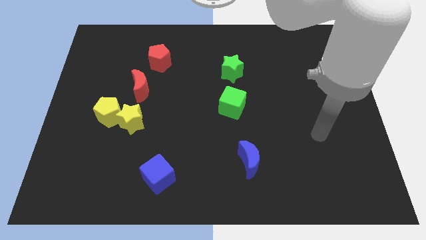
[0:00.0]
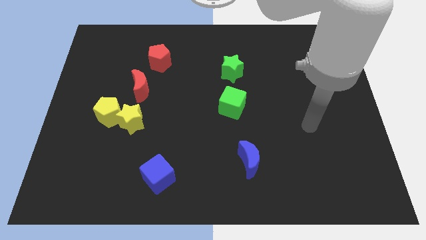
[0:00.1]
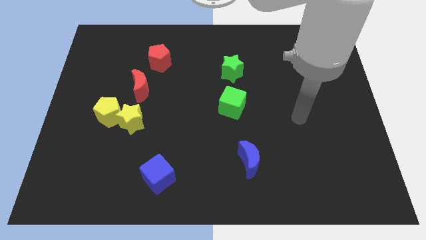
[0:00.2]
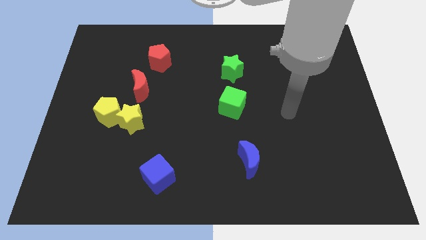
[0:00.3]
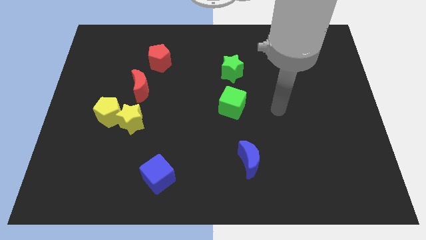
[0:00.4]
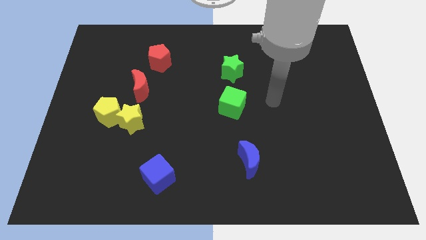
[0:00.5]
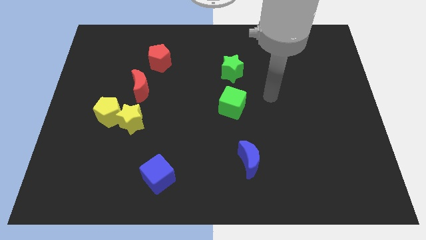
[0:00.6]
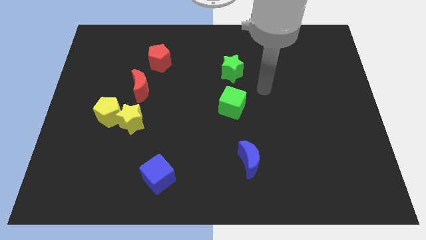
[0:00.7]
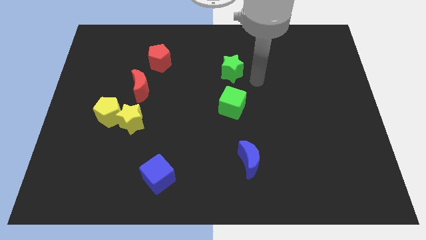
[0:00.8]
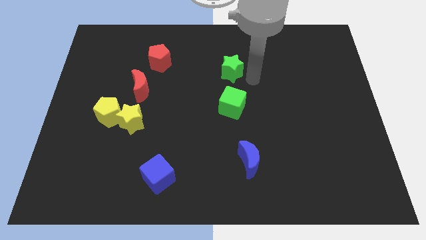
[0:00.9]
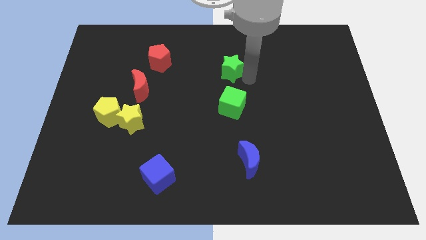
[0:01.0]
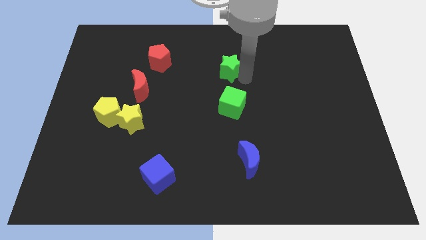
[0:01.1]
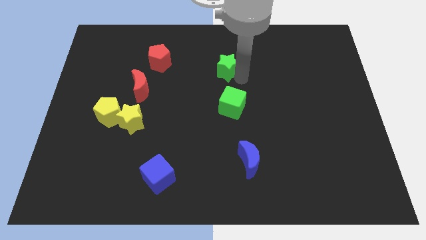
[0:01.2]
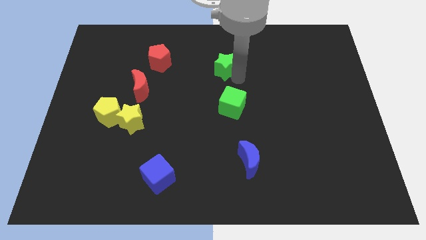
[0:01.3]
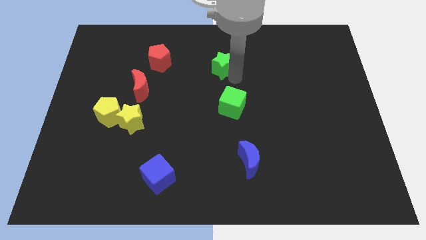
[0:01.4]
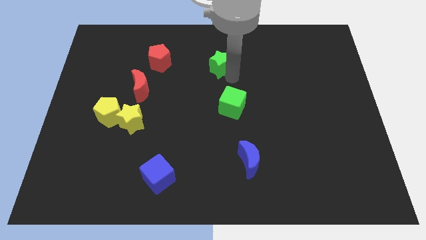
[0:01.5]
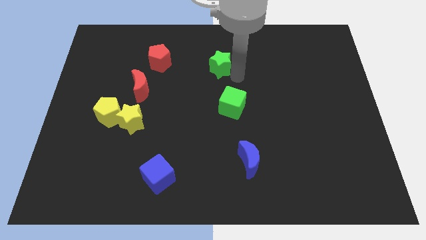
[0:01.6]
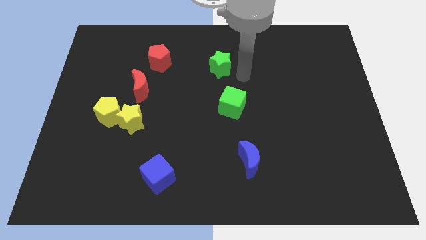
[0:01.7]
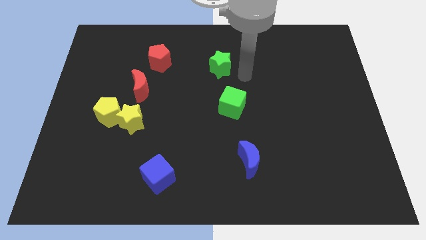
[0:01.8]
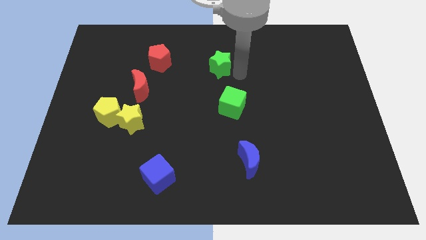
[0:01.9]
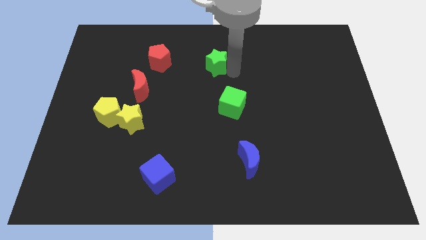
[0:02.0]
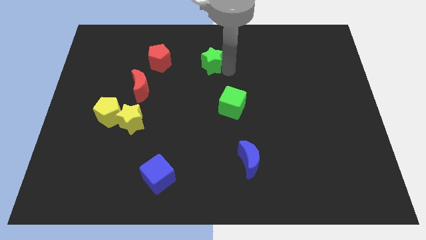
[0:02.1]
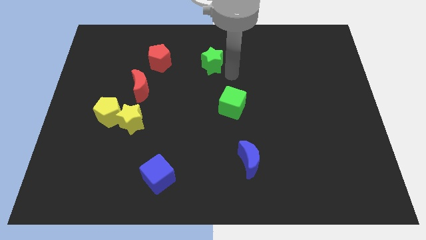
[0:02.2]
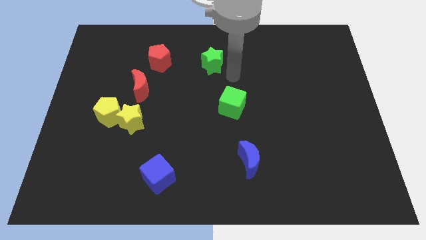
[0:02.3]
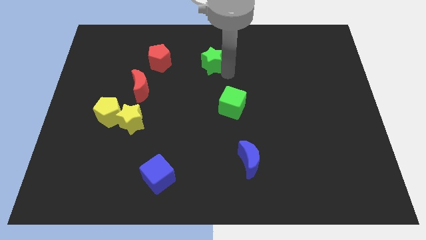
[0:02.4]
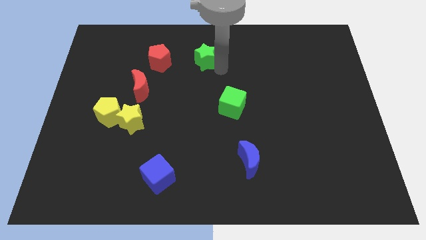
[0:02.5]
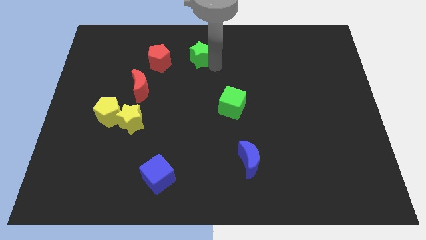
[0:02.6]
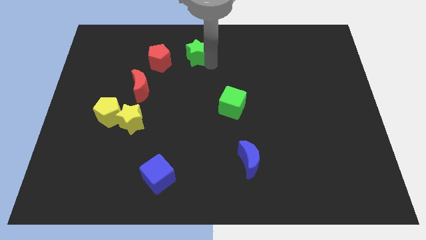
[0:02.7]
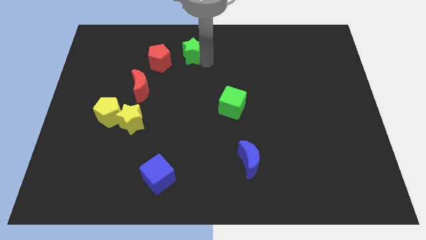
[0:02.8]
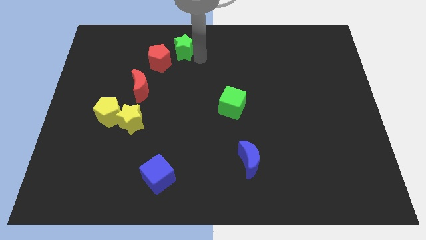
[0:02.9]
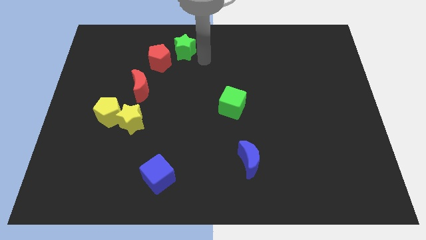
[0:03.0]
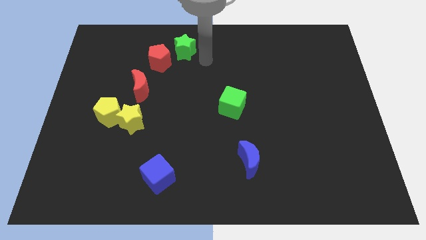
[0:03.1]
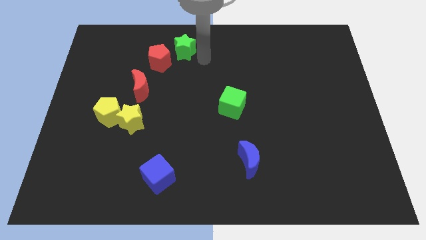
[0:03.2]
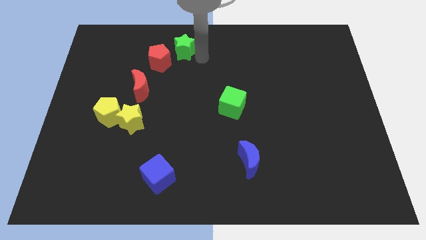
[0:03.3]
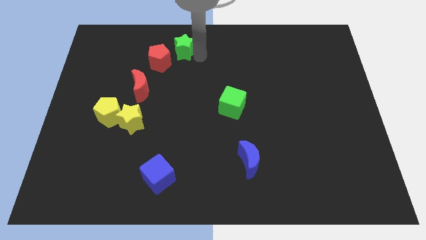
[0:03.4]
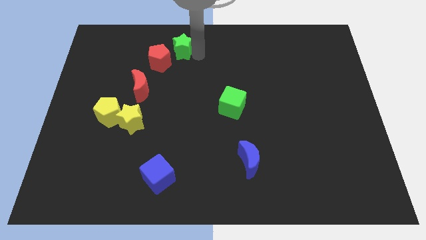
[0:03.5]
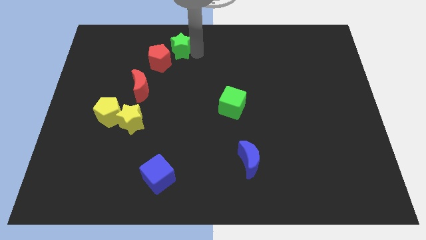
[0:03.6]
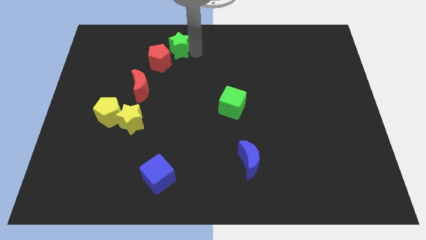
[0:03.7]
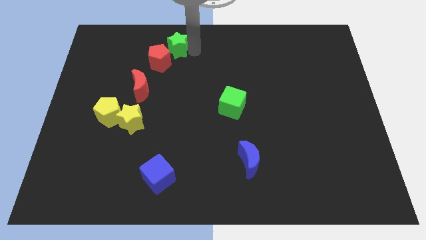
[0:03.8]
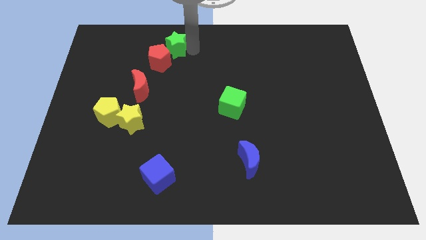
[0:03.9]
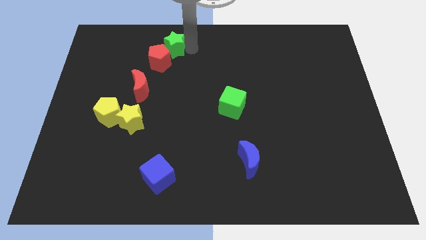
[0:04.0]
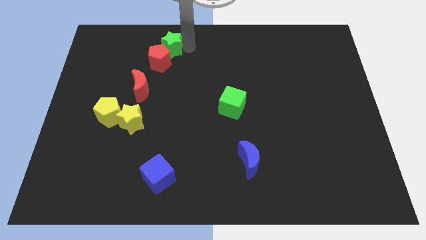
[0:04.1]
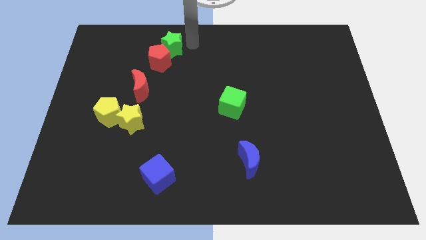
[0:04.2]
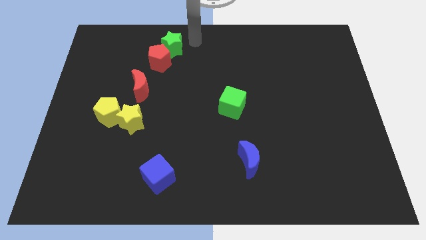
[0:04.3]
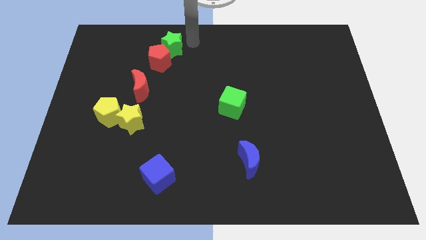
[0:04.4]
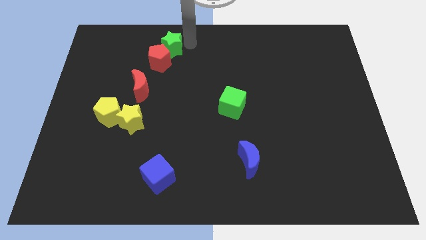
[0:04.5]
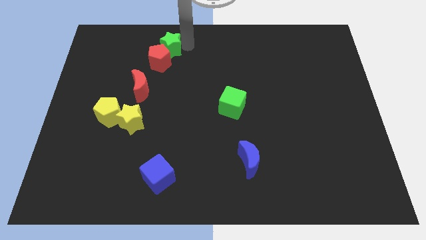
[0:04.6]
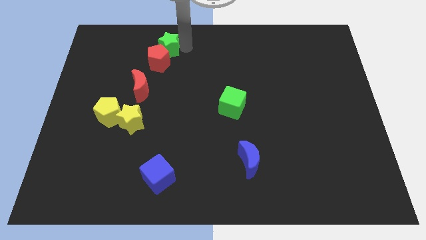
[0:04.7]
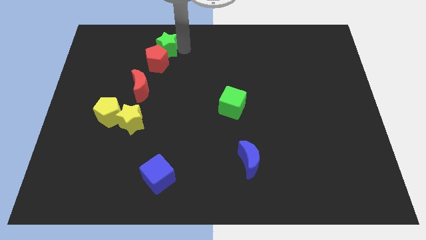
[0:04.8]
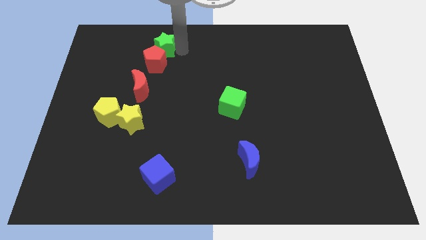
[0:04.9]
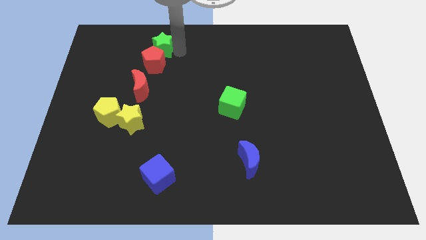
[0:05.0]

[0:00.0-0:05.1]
put the green star to the top side of the red moon

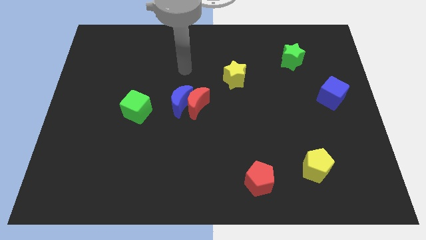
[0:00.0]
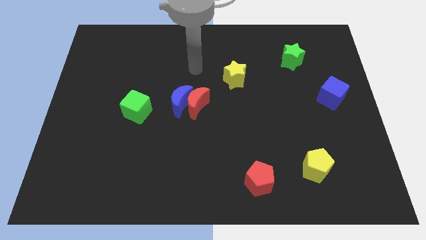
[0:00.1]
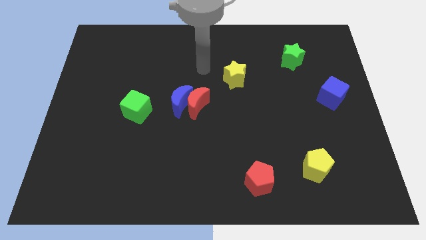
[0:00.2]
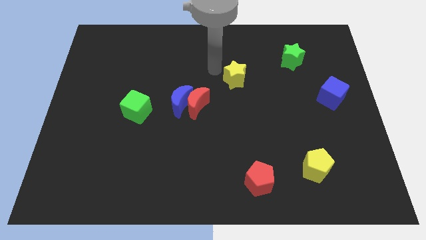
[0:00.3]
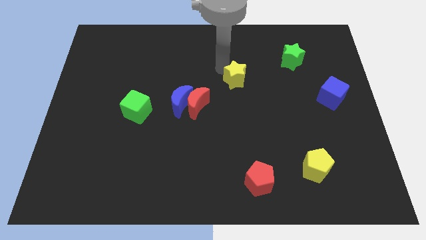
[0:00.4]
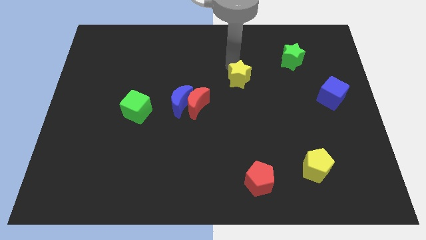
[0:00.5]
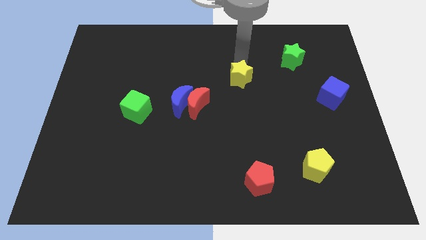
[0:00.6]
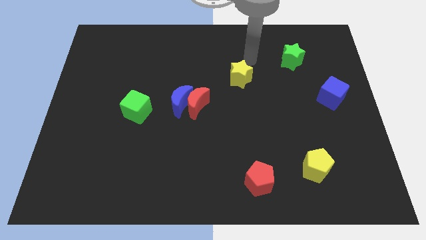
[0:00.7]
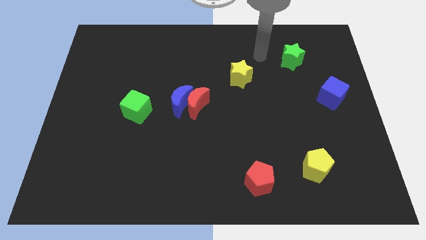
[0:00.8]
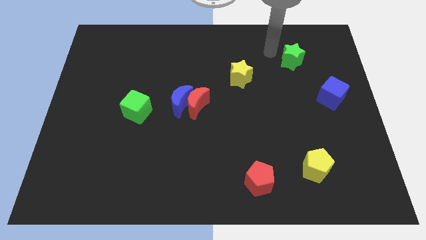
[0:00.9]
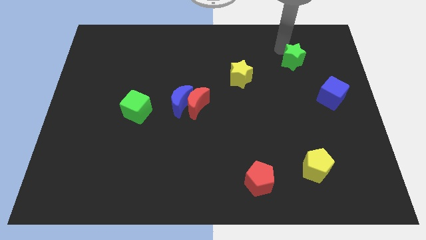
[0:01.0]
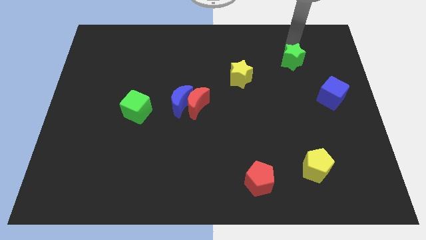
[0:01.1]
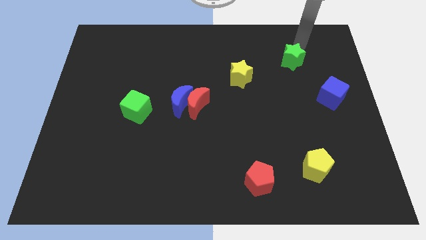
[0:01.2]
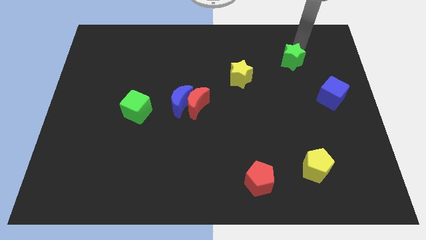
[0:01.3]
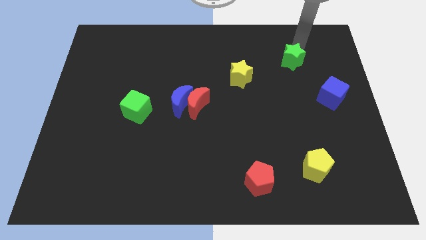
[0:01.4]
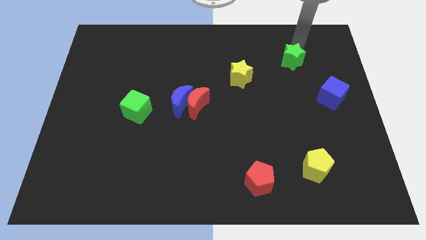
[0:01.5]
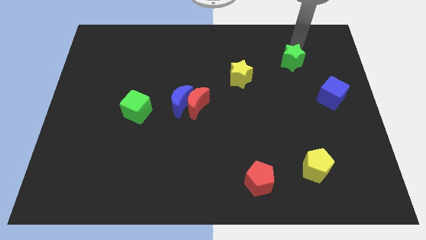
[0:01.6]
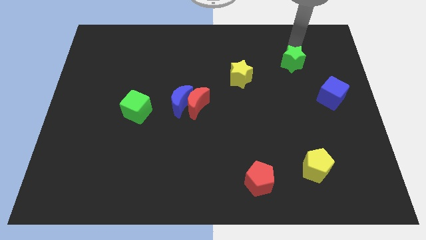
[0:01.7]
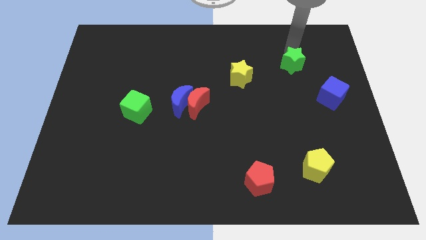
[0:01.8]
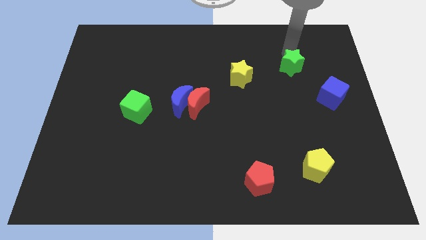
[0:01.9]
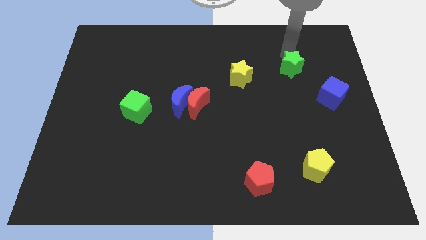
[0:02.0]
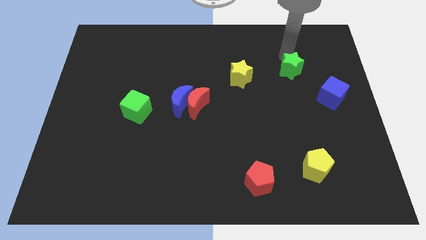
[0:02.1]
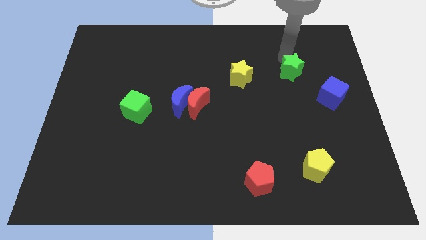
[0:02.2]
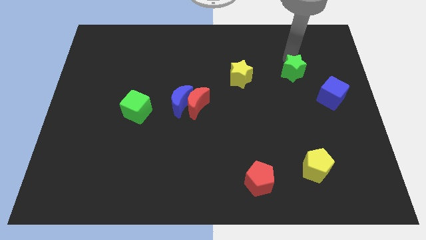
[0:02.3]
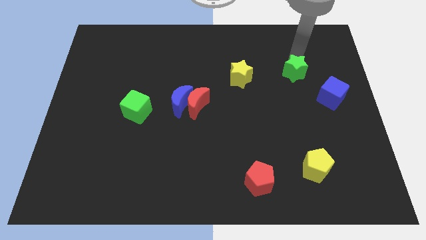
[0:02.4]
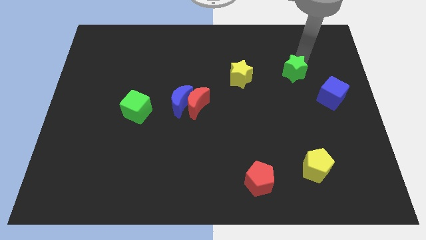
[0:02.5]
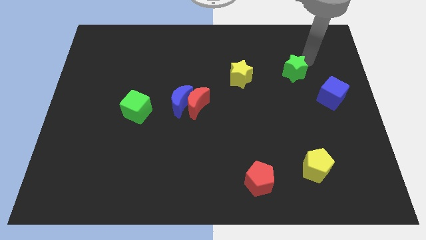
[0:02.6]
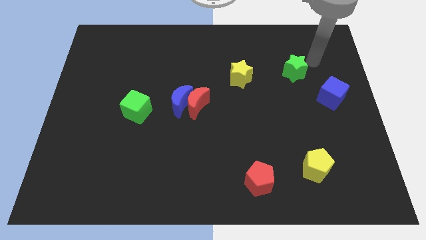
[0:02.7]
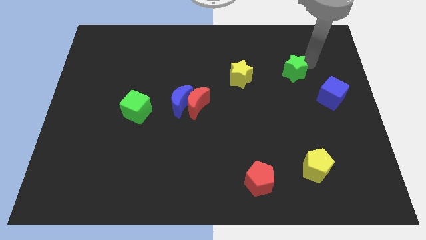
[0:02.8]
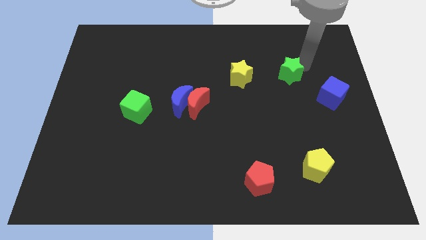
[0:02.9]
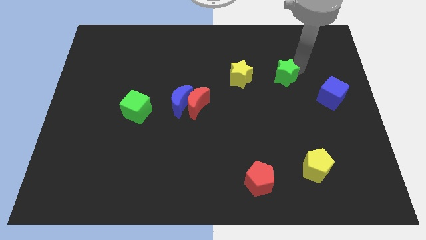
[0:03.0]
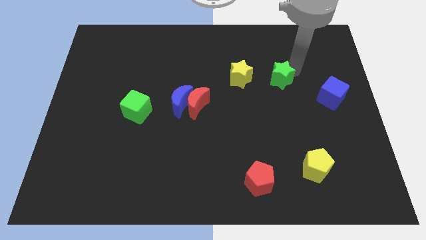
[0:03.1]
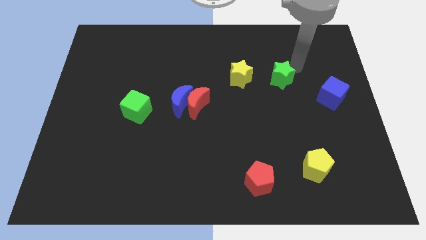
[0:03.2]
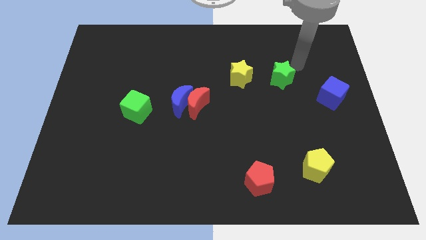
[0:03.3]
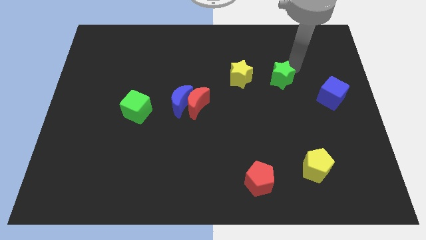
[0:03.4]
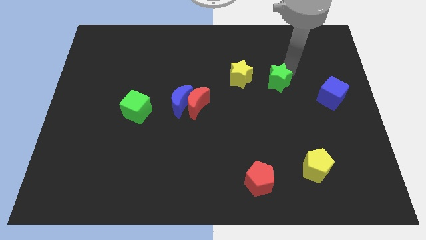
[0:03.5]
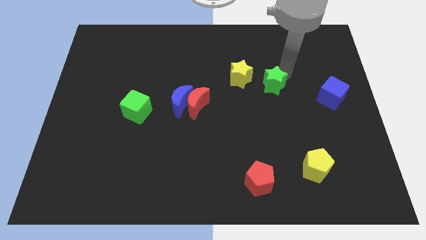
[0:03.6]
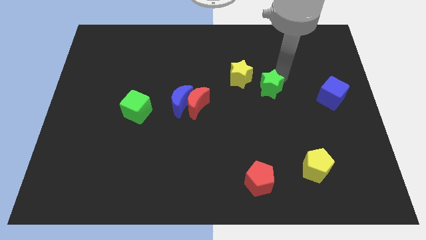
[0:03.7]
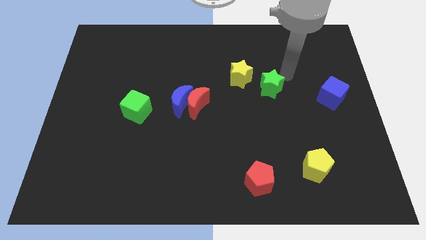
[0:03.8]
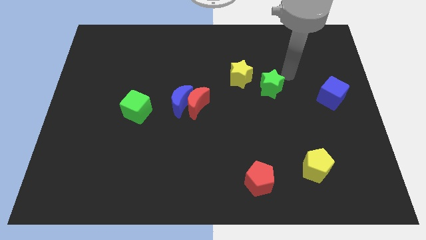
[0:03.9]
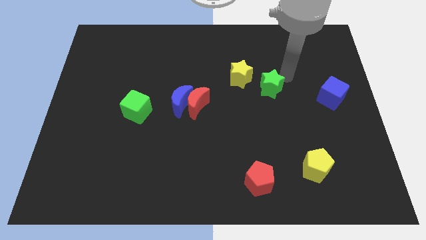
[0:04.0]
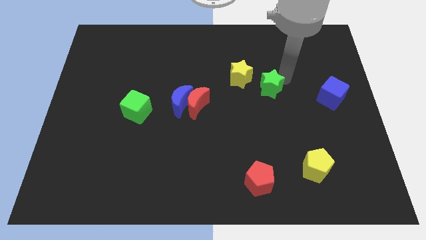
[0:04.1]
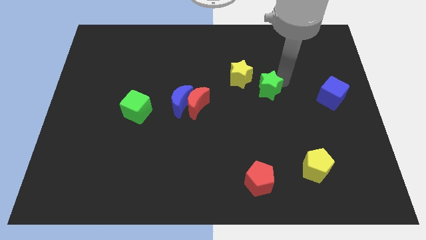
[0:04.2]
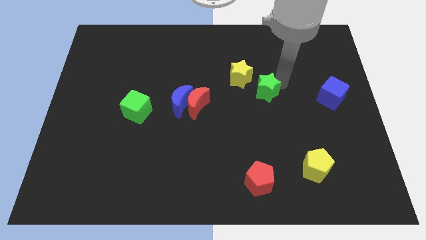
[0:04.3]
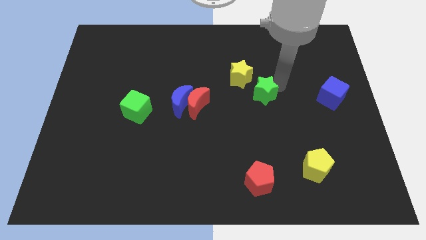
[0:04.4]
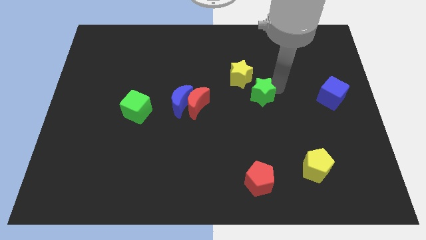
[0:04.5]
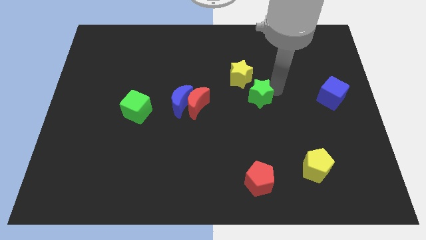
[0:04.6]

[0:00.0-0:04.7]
move the green star right of the red moon
